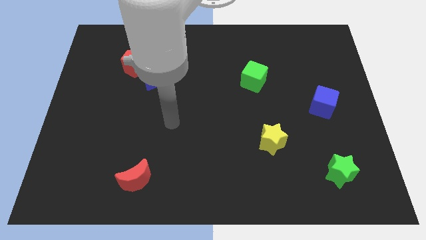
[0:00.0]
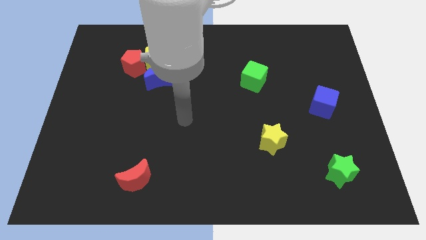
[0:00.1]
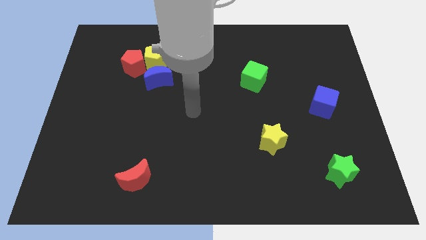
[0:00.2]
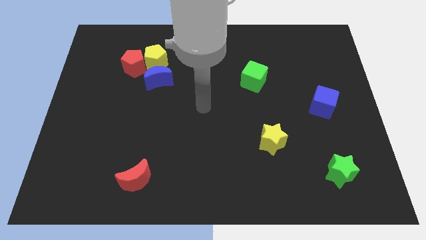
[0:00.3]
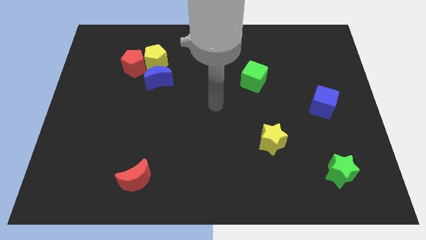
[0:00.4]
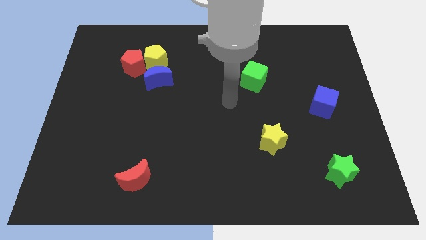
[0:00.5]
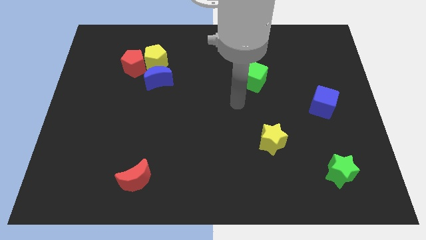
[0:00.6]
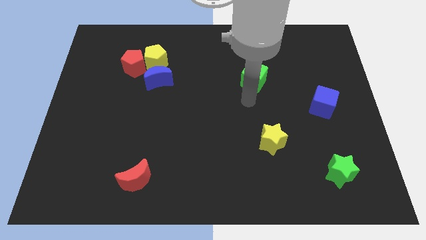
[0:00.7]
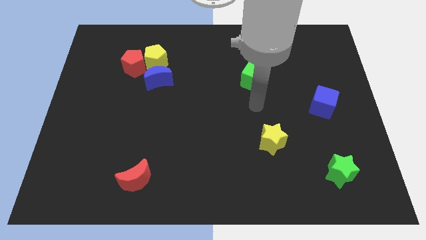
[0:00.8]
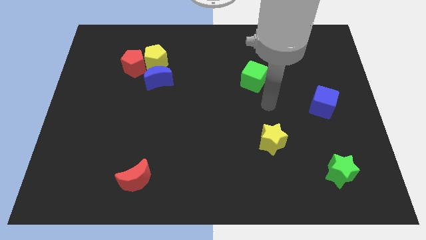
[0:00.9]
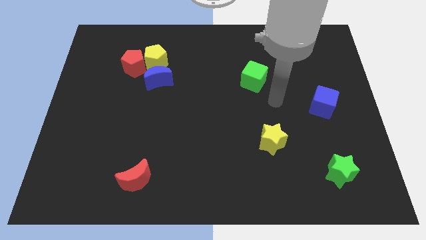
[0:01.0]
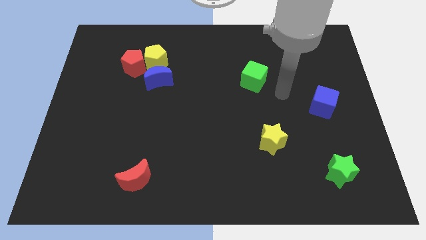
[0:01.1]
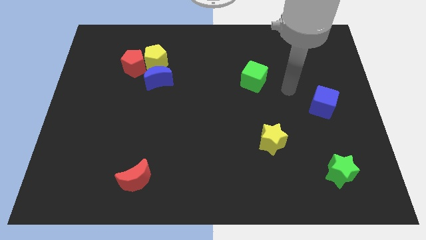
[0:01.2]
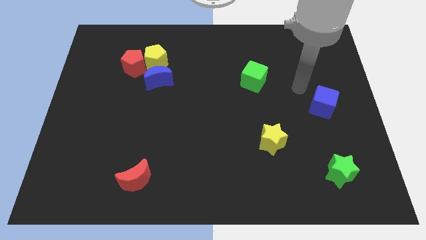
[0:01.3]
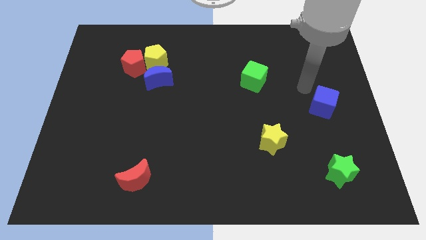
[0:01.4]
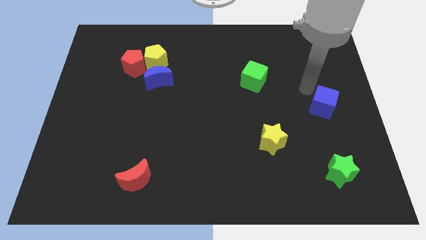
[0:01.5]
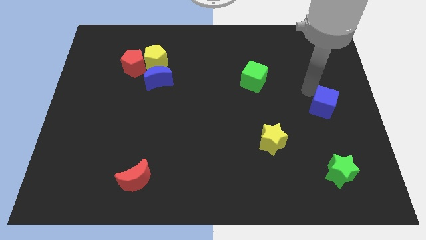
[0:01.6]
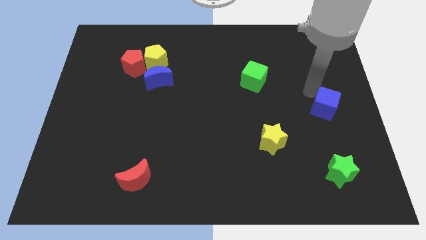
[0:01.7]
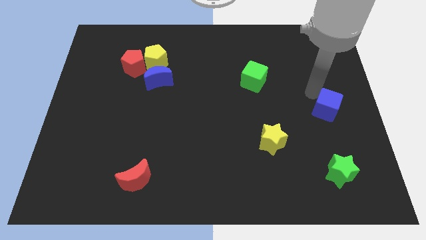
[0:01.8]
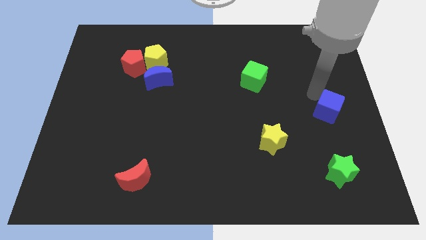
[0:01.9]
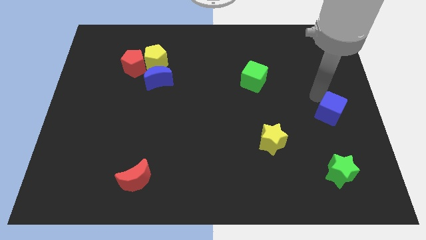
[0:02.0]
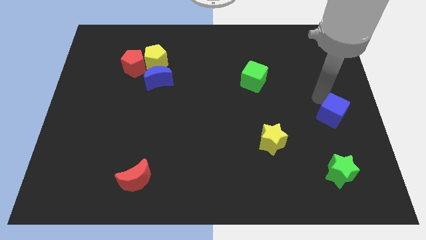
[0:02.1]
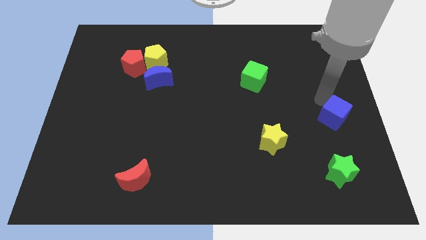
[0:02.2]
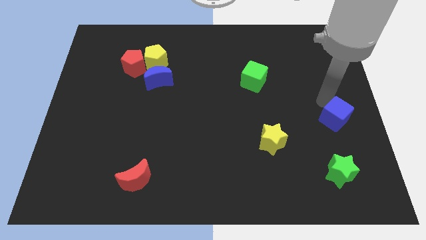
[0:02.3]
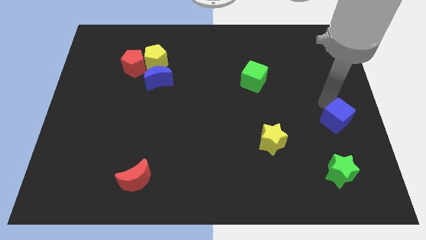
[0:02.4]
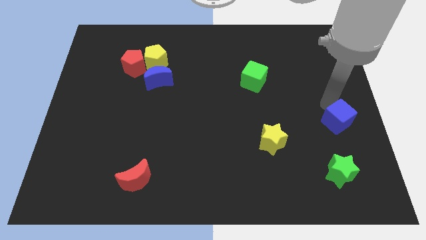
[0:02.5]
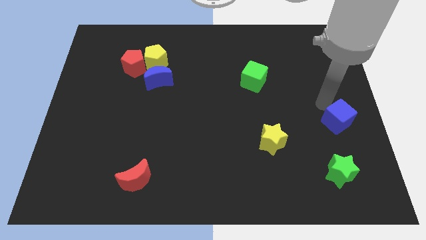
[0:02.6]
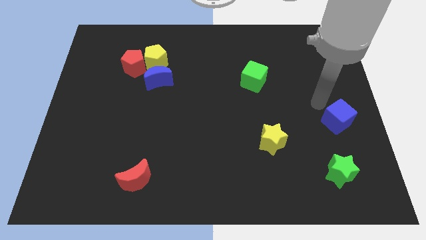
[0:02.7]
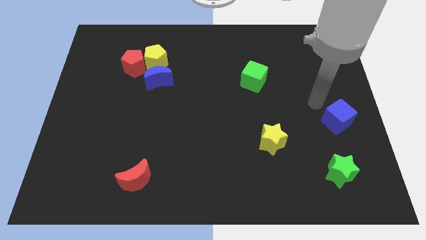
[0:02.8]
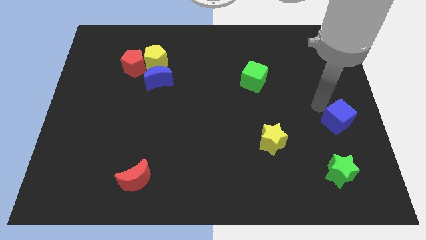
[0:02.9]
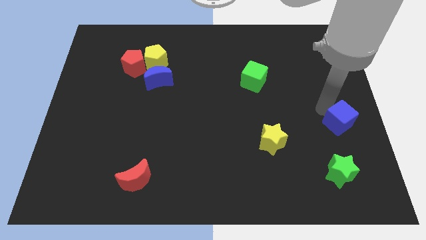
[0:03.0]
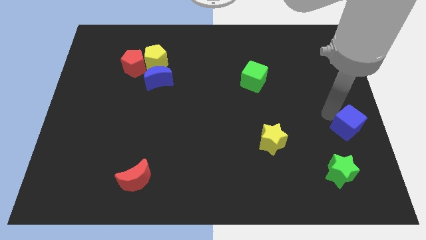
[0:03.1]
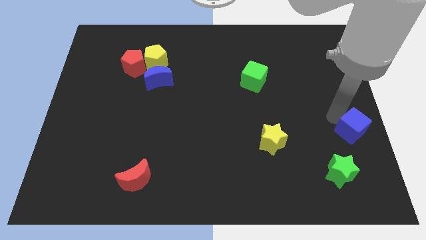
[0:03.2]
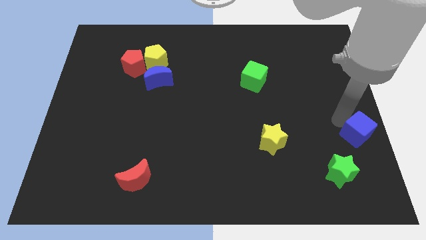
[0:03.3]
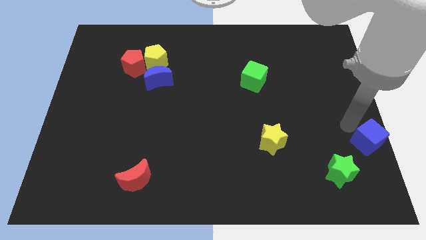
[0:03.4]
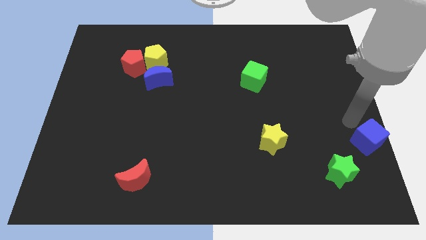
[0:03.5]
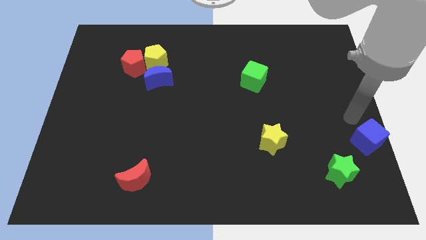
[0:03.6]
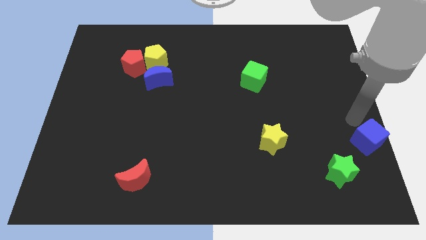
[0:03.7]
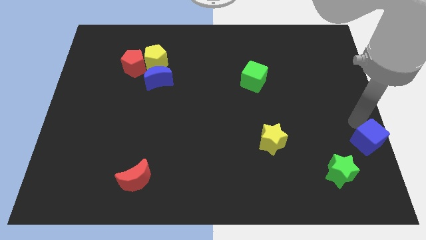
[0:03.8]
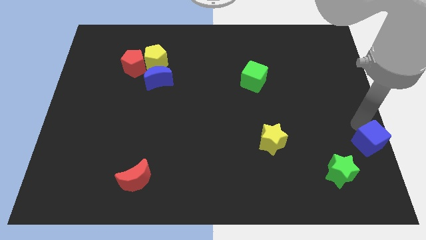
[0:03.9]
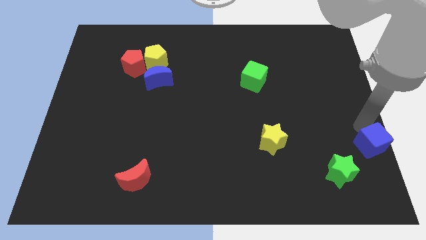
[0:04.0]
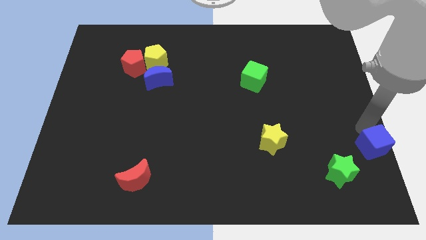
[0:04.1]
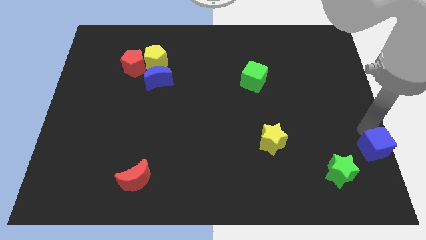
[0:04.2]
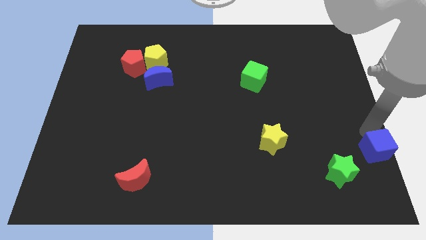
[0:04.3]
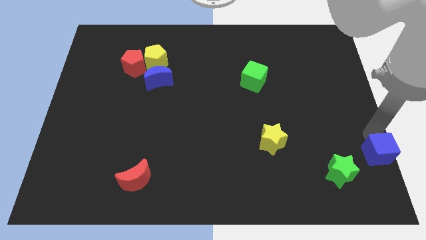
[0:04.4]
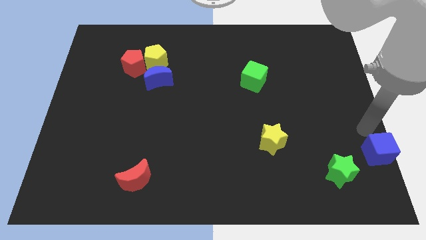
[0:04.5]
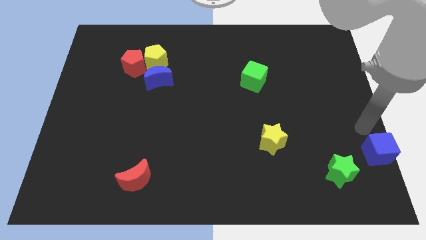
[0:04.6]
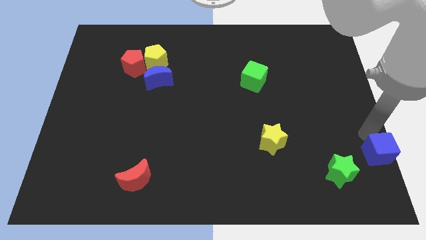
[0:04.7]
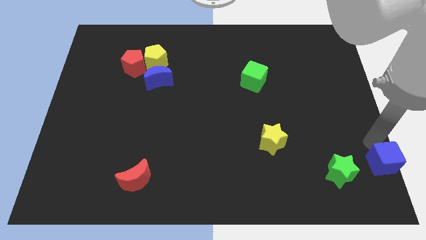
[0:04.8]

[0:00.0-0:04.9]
put the blue cube to the bottom right

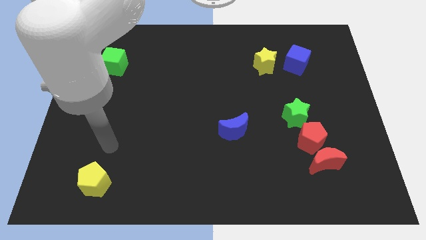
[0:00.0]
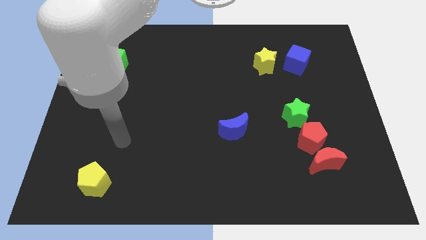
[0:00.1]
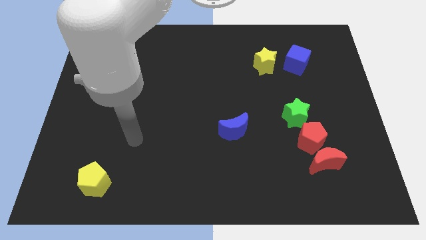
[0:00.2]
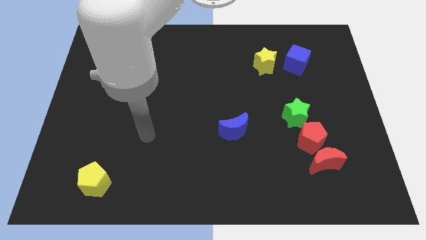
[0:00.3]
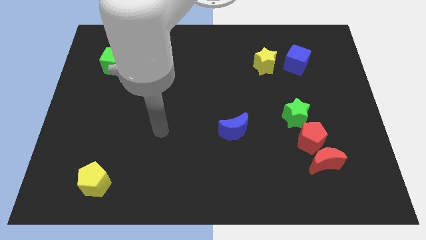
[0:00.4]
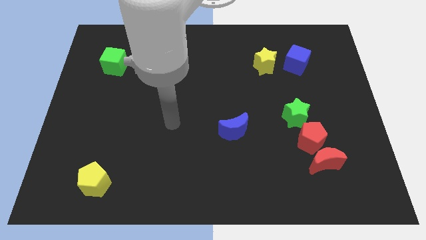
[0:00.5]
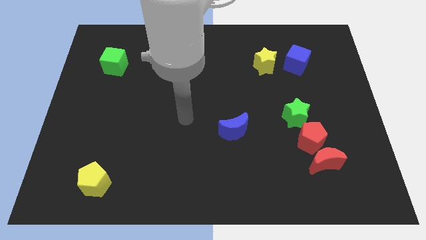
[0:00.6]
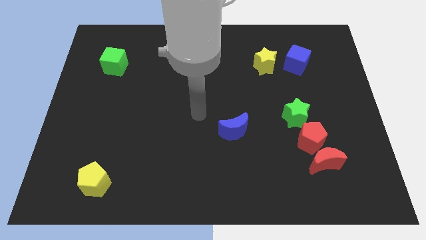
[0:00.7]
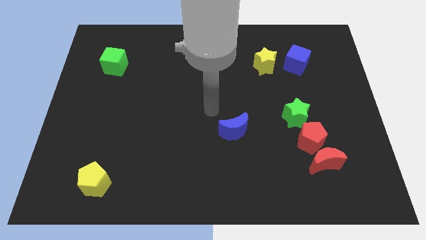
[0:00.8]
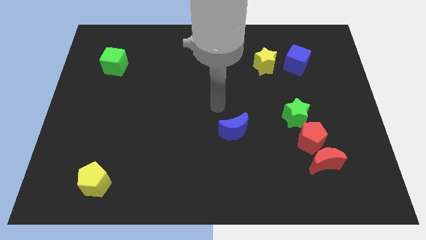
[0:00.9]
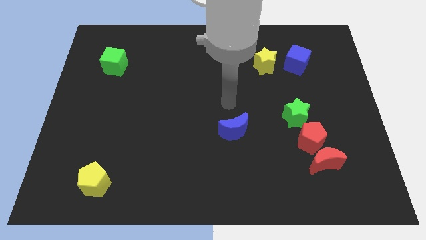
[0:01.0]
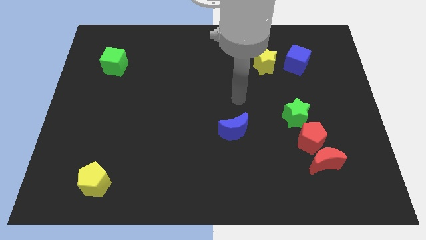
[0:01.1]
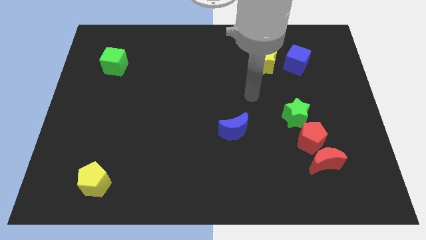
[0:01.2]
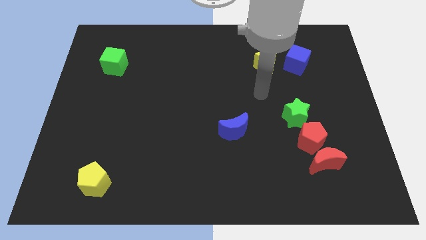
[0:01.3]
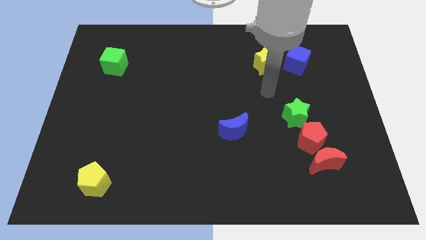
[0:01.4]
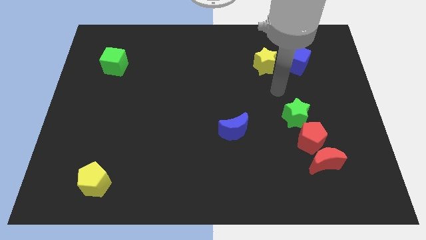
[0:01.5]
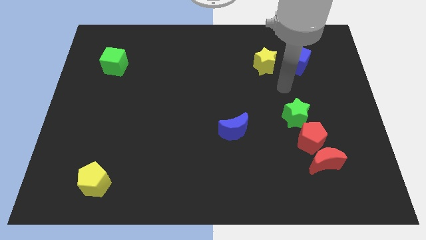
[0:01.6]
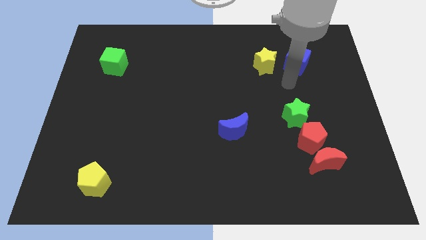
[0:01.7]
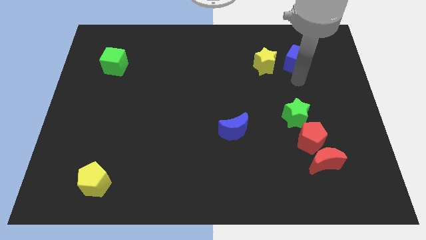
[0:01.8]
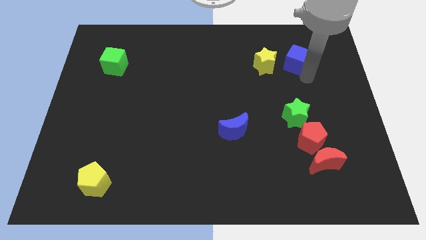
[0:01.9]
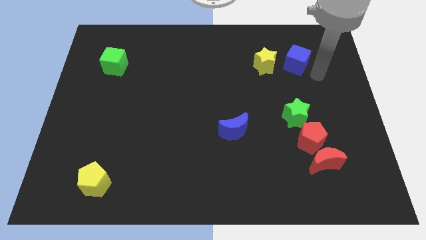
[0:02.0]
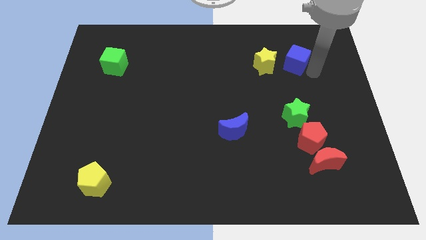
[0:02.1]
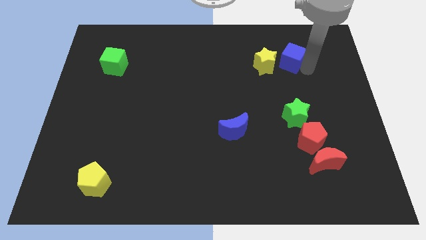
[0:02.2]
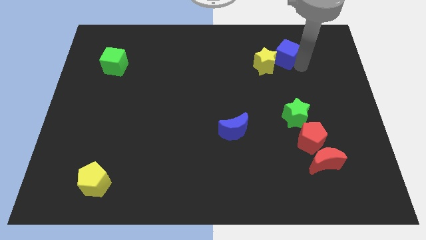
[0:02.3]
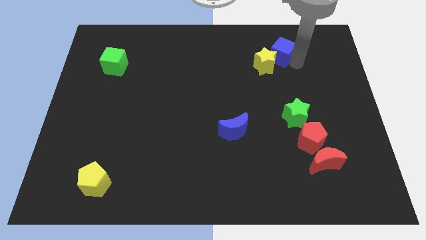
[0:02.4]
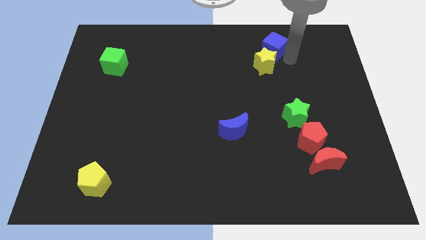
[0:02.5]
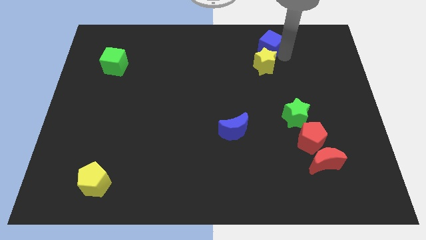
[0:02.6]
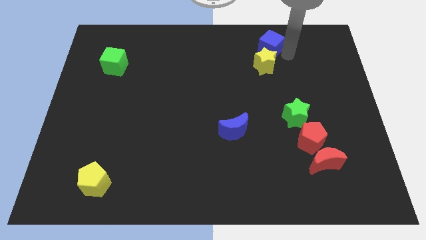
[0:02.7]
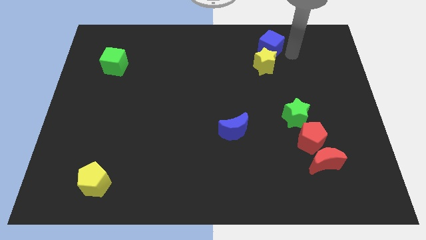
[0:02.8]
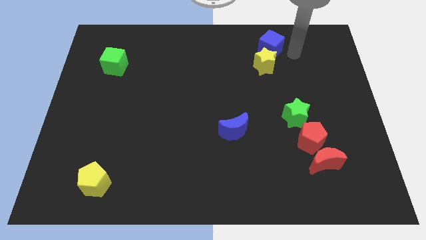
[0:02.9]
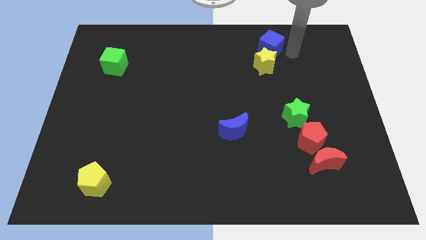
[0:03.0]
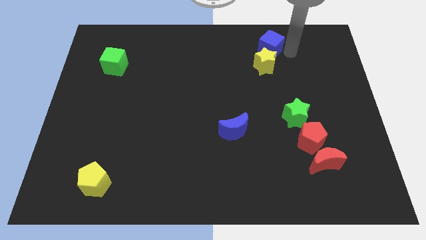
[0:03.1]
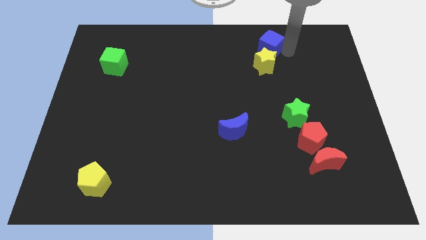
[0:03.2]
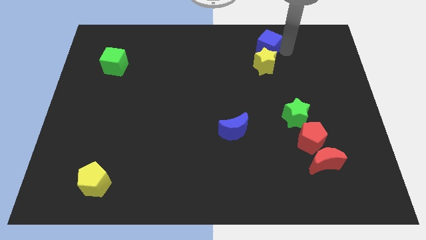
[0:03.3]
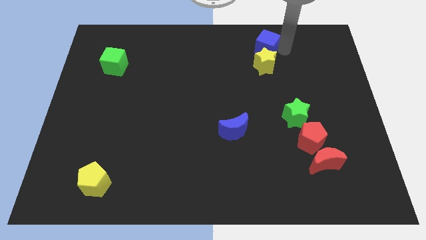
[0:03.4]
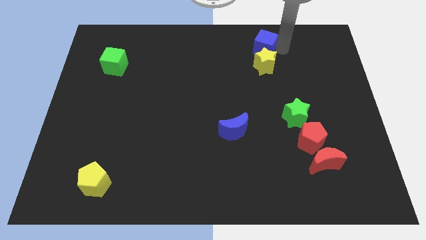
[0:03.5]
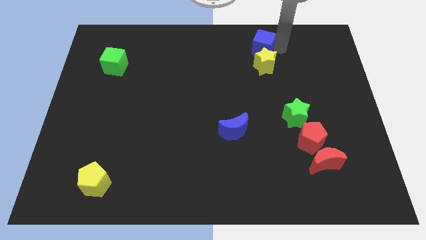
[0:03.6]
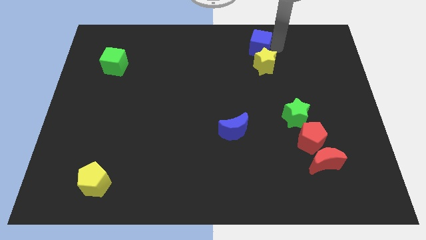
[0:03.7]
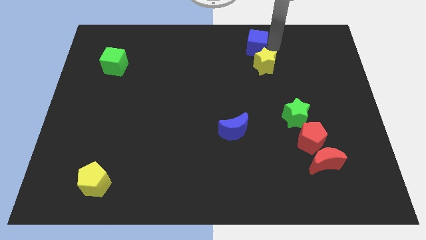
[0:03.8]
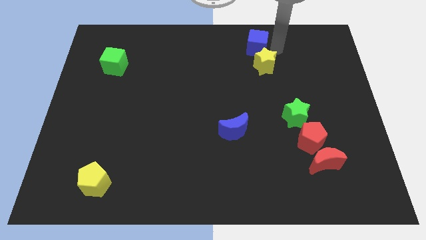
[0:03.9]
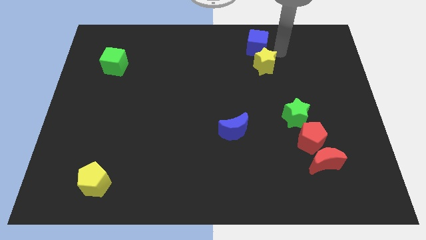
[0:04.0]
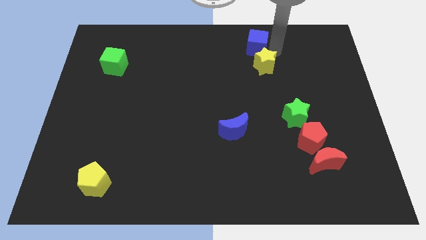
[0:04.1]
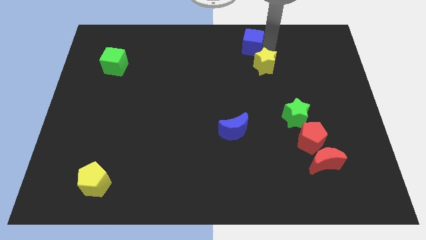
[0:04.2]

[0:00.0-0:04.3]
push the blue cube to the top side
